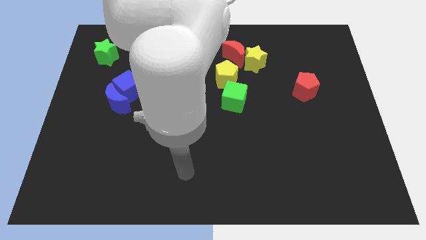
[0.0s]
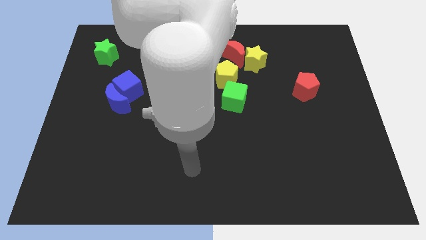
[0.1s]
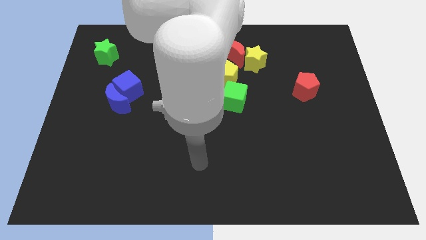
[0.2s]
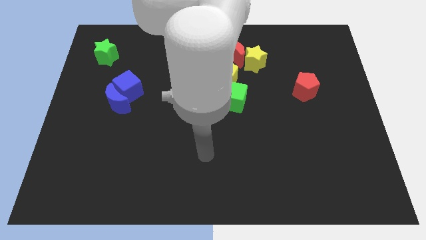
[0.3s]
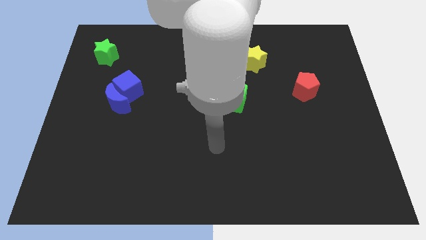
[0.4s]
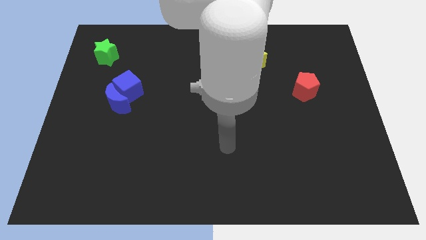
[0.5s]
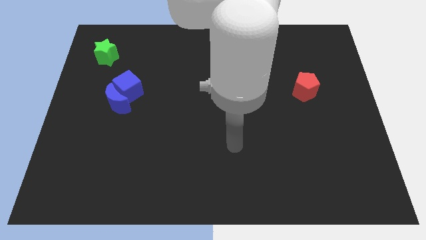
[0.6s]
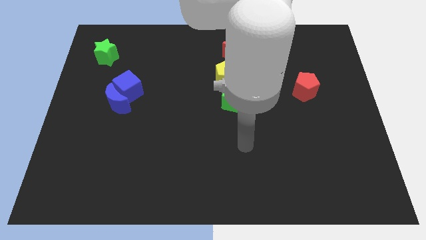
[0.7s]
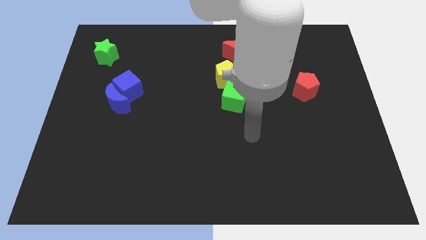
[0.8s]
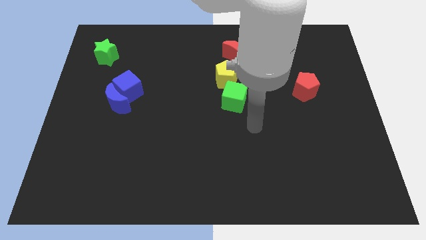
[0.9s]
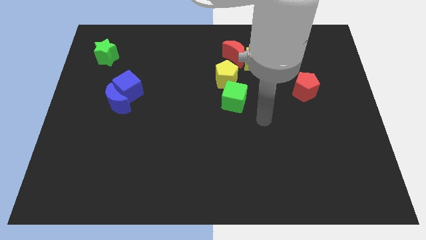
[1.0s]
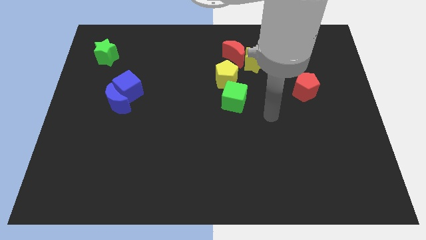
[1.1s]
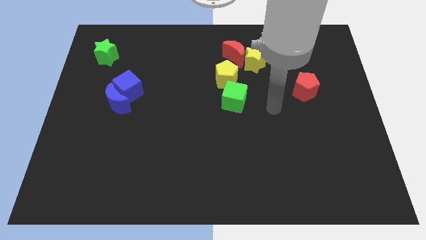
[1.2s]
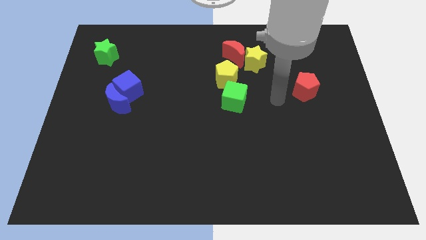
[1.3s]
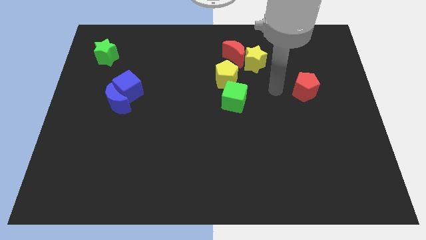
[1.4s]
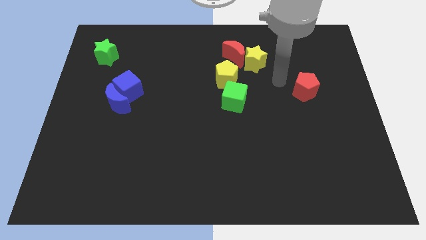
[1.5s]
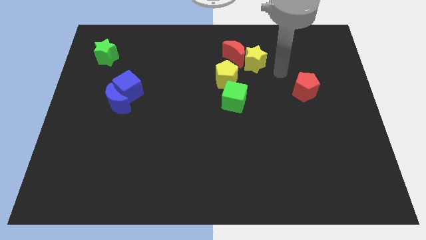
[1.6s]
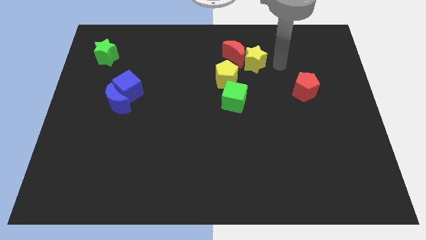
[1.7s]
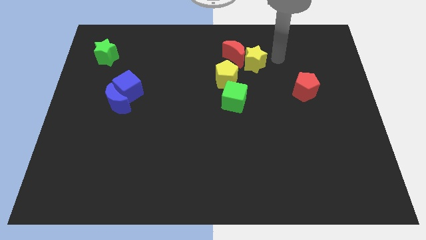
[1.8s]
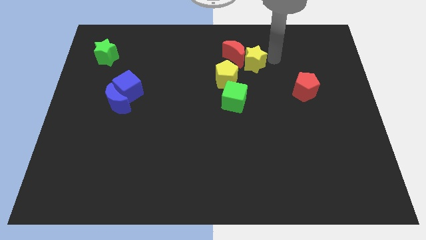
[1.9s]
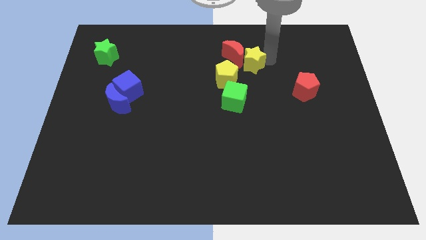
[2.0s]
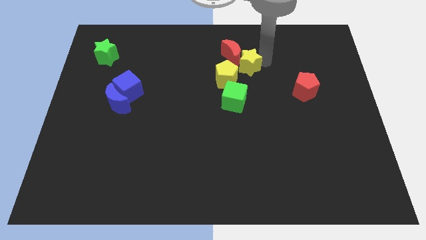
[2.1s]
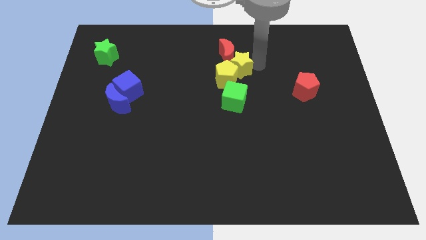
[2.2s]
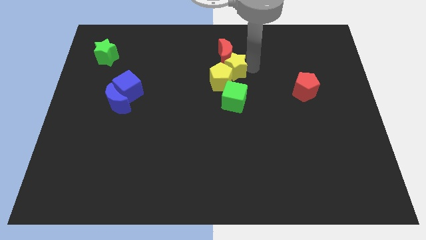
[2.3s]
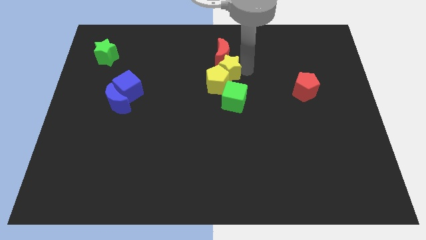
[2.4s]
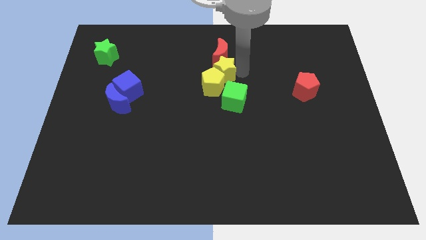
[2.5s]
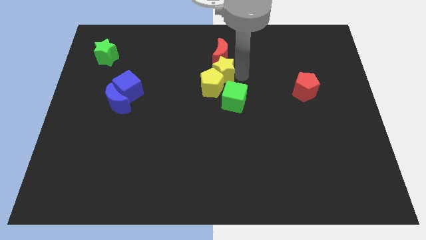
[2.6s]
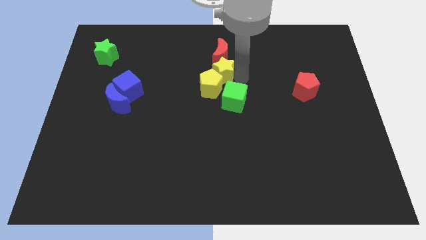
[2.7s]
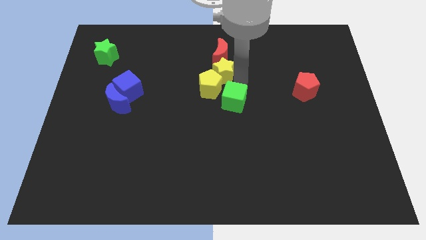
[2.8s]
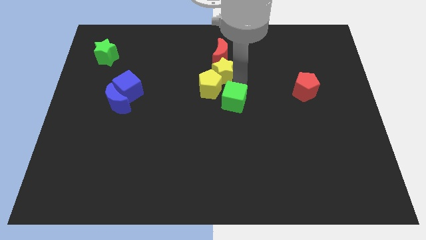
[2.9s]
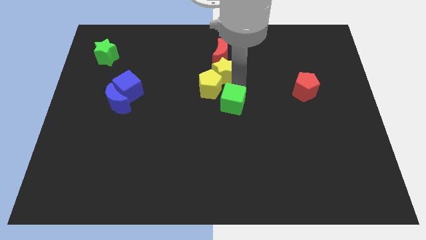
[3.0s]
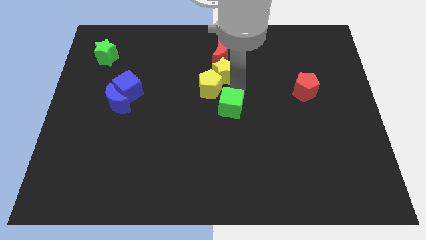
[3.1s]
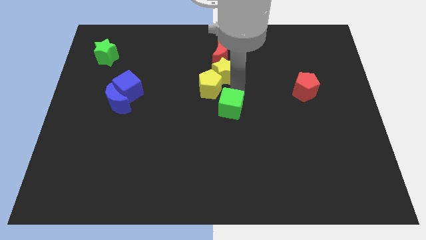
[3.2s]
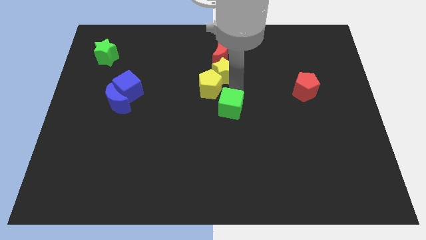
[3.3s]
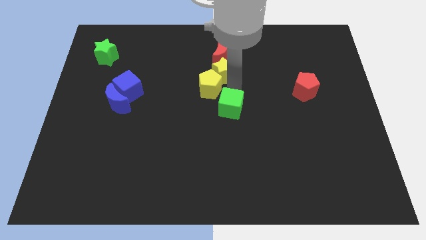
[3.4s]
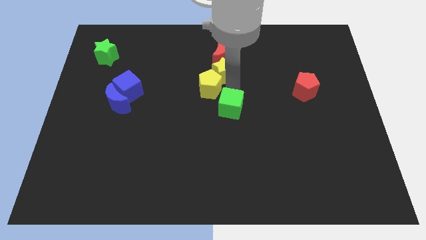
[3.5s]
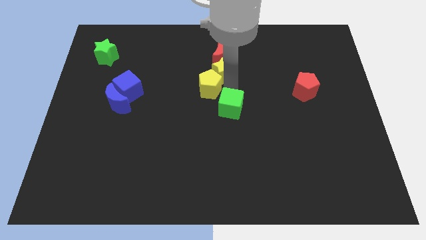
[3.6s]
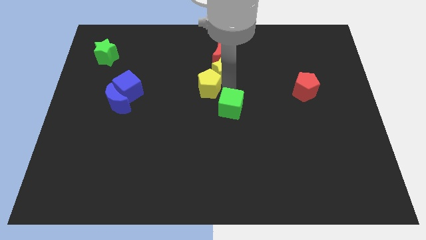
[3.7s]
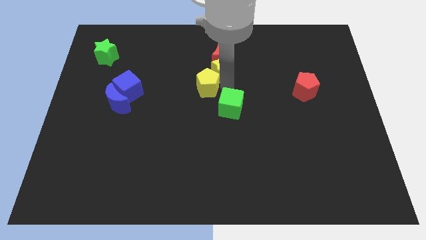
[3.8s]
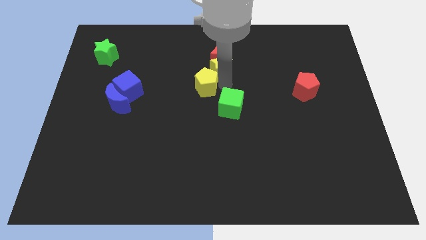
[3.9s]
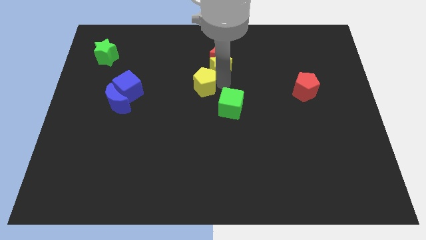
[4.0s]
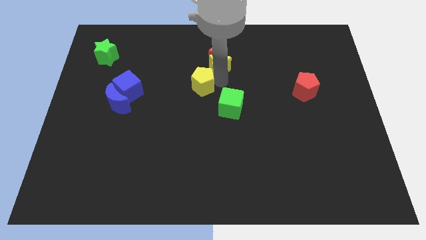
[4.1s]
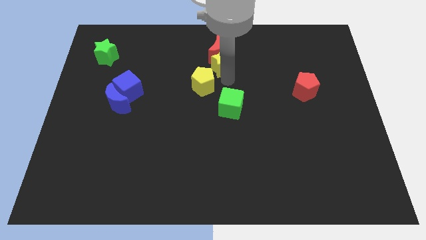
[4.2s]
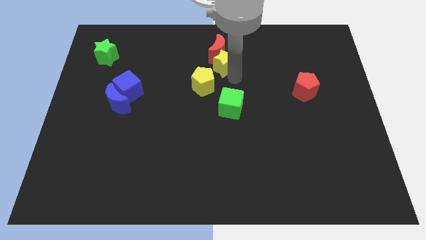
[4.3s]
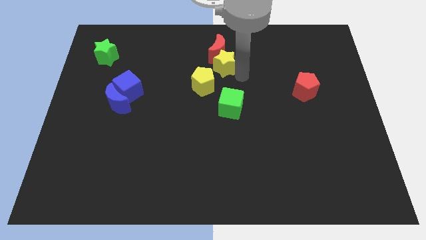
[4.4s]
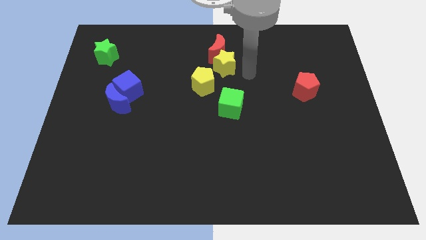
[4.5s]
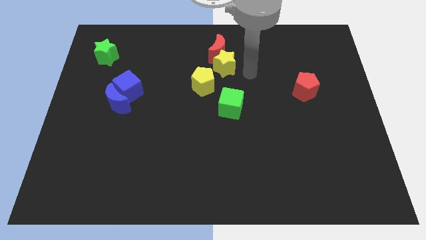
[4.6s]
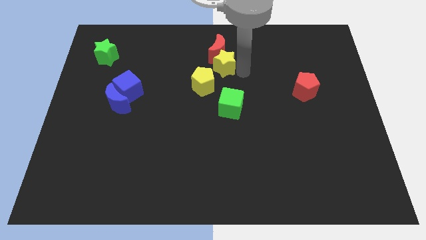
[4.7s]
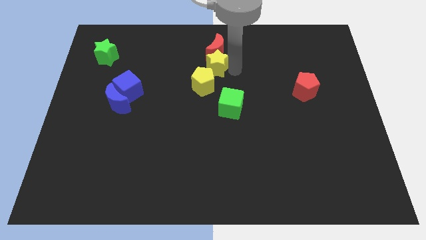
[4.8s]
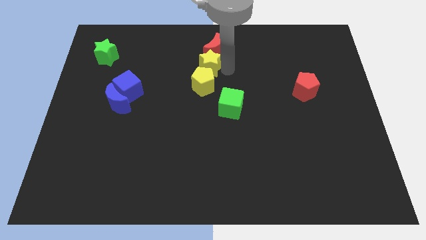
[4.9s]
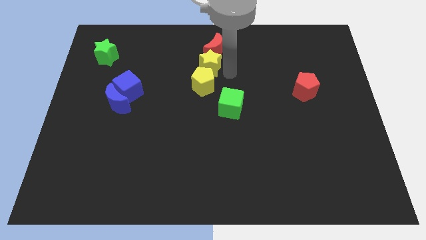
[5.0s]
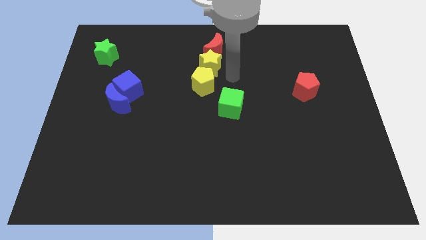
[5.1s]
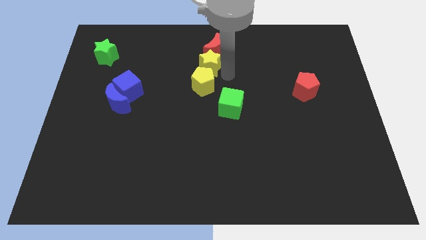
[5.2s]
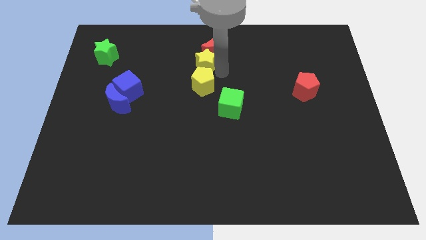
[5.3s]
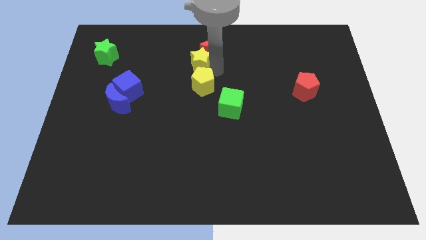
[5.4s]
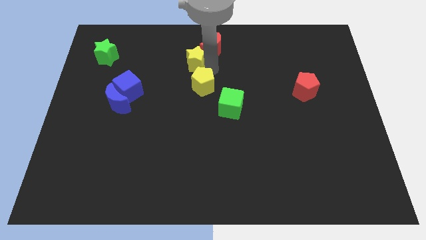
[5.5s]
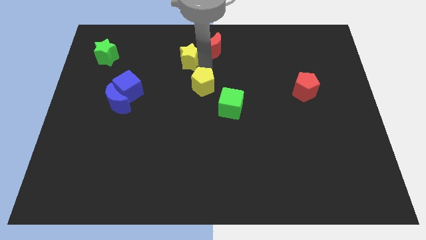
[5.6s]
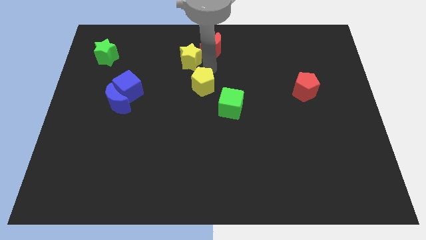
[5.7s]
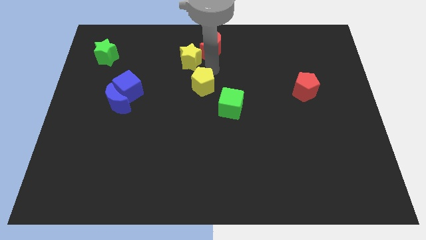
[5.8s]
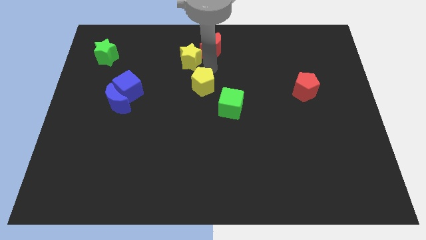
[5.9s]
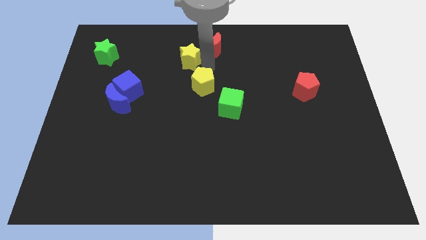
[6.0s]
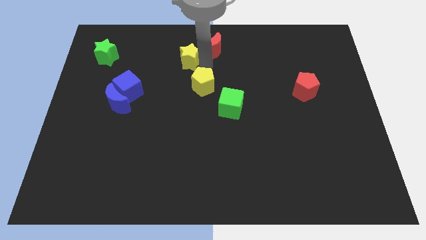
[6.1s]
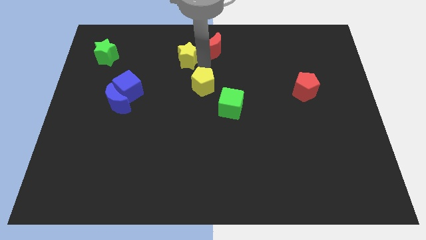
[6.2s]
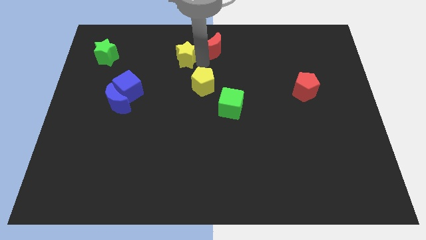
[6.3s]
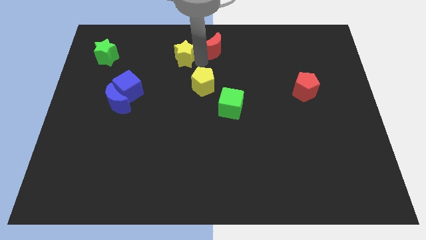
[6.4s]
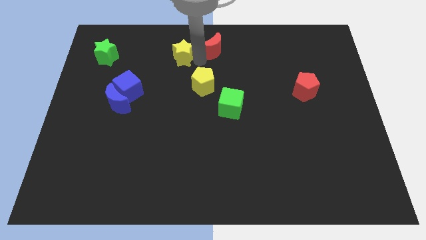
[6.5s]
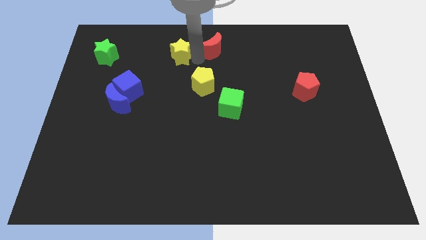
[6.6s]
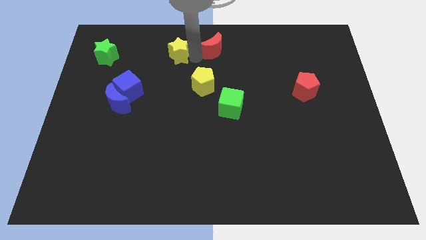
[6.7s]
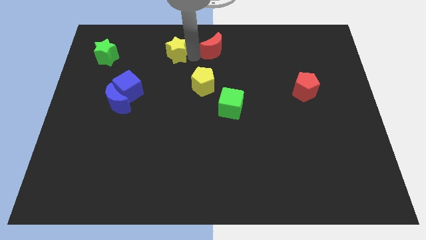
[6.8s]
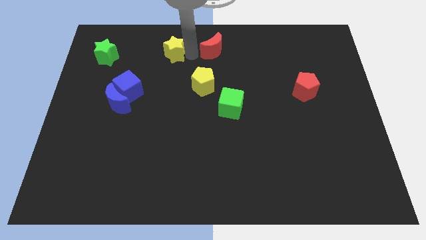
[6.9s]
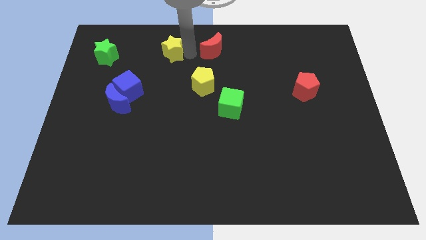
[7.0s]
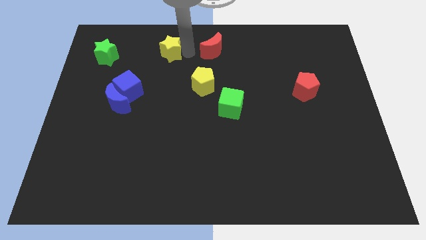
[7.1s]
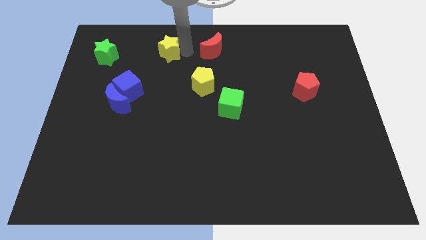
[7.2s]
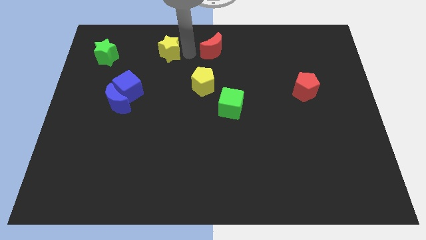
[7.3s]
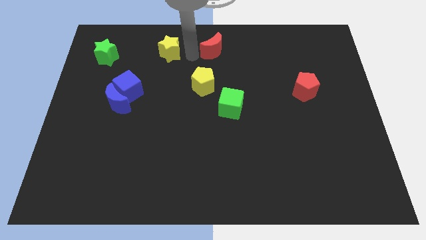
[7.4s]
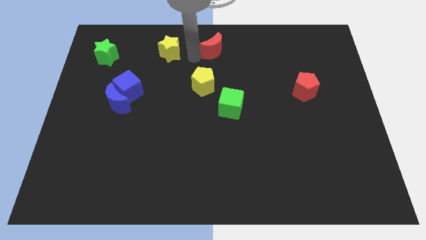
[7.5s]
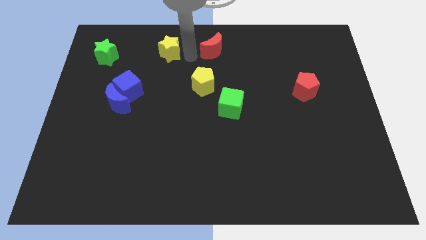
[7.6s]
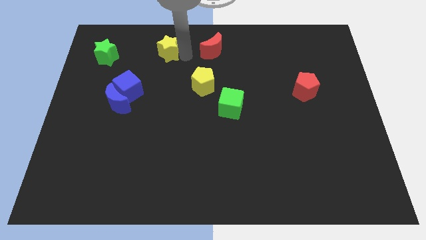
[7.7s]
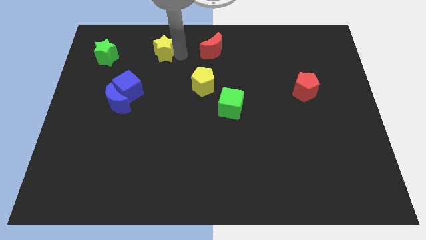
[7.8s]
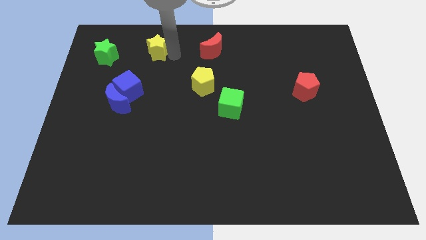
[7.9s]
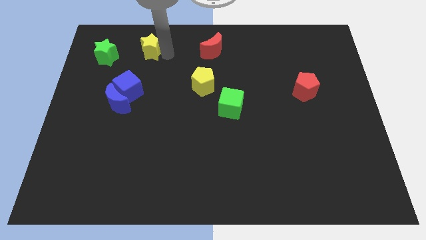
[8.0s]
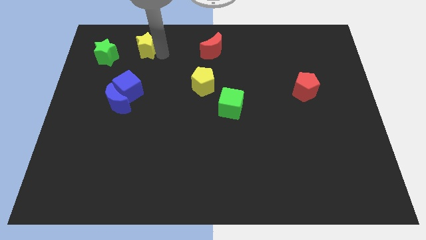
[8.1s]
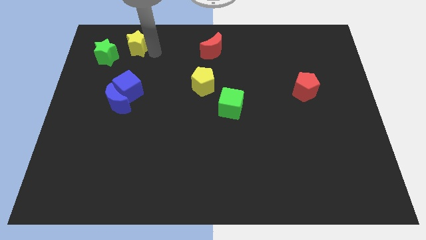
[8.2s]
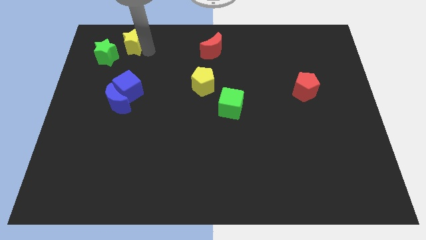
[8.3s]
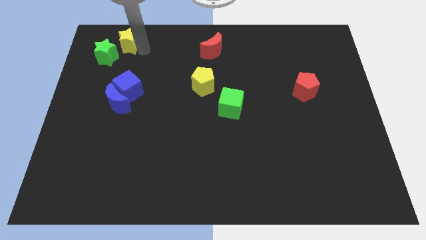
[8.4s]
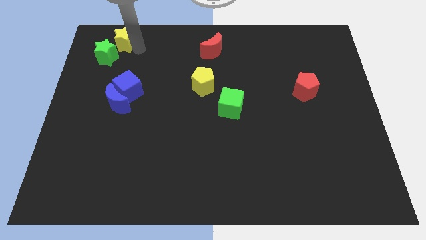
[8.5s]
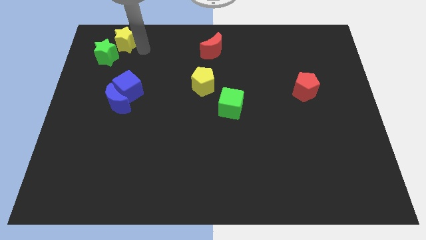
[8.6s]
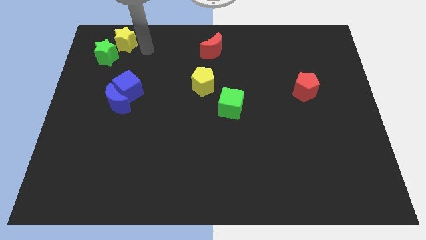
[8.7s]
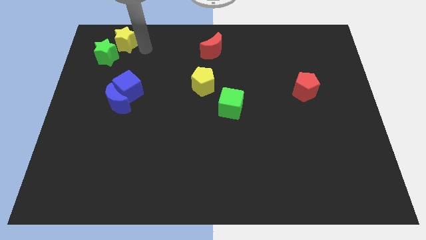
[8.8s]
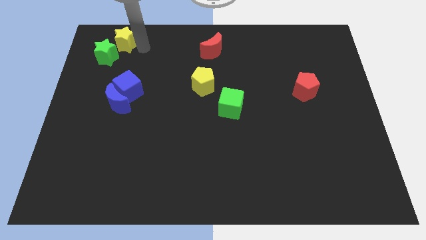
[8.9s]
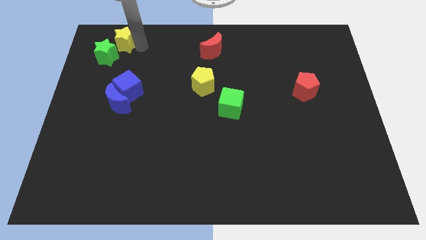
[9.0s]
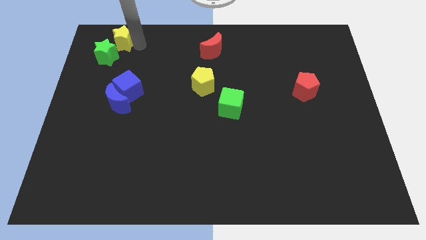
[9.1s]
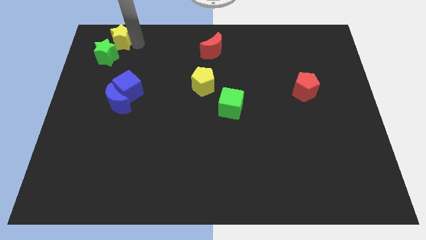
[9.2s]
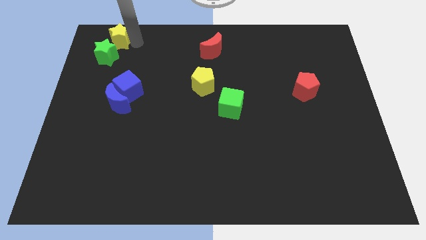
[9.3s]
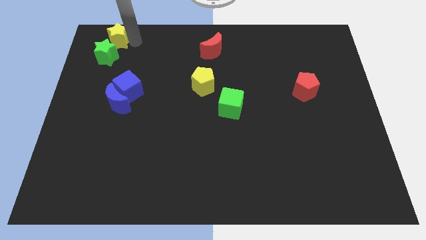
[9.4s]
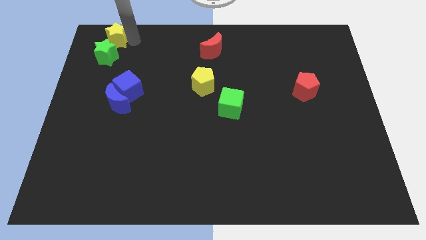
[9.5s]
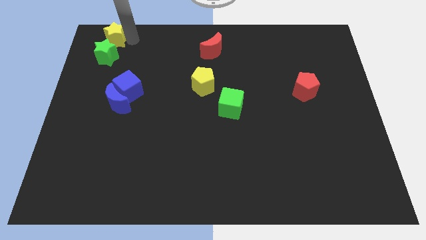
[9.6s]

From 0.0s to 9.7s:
put the yellow star to the top left
